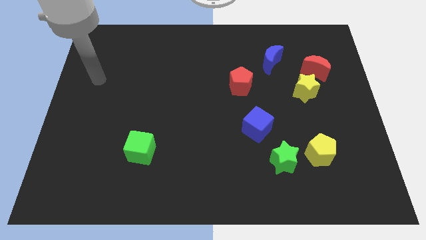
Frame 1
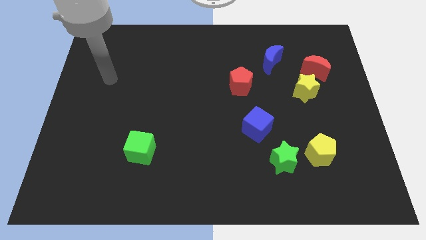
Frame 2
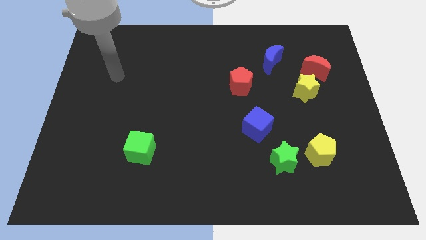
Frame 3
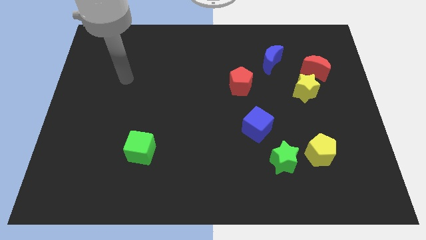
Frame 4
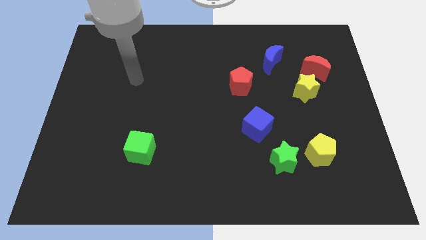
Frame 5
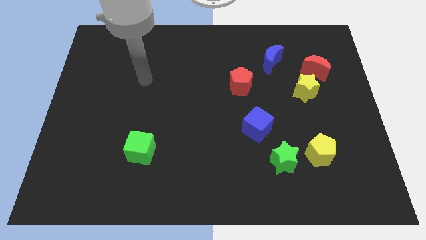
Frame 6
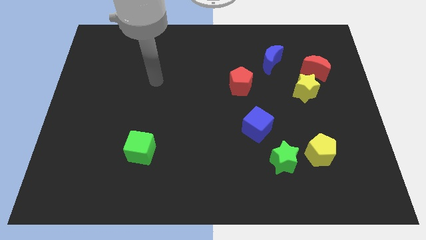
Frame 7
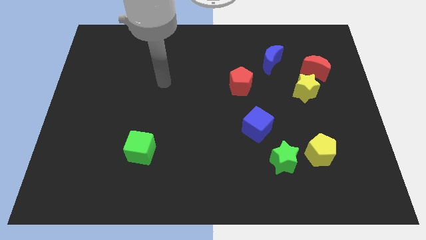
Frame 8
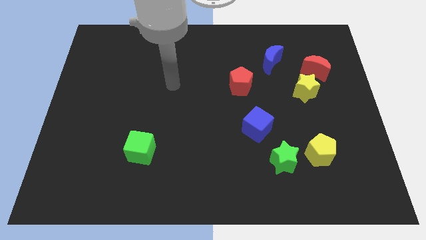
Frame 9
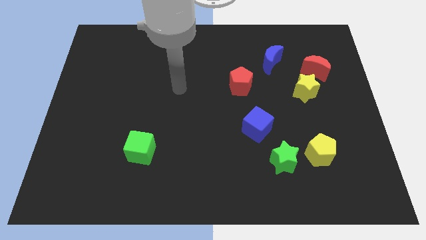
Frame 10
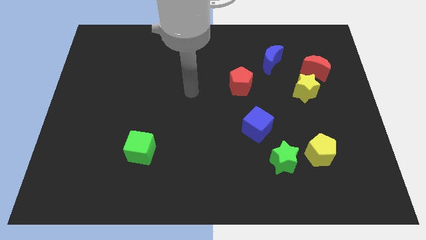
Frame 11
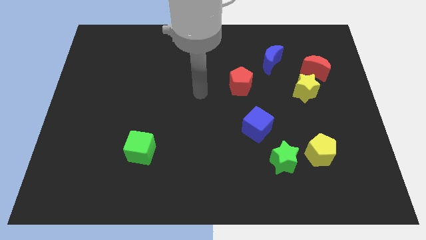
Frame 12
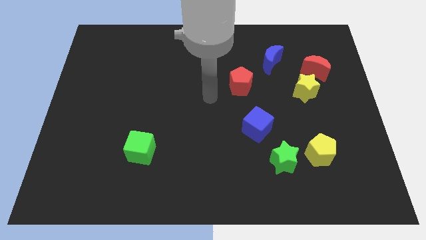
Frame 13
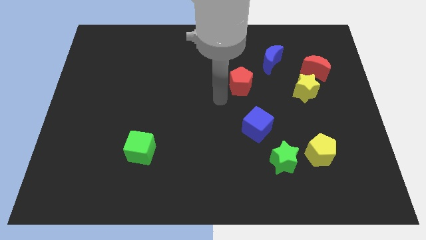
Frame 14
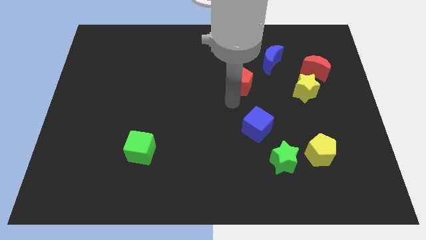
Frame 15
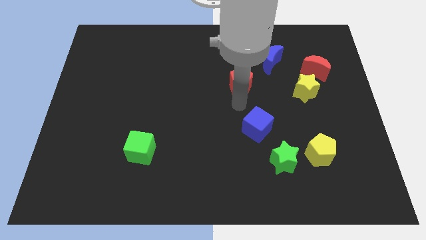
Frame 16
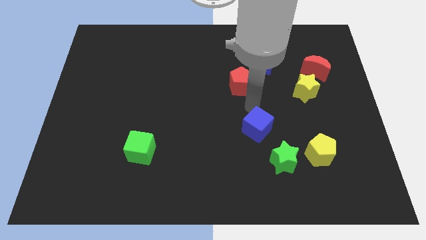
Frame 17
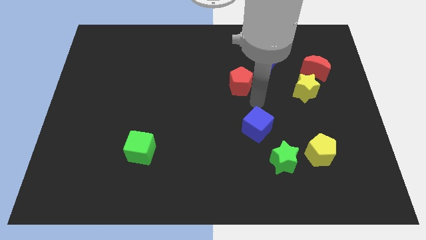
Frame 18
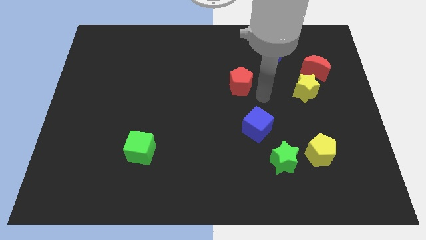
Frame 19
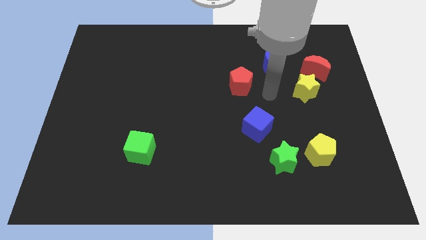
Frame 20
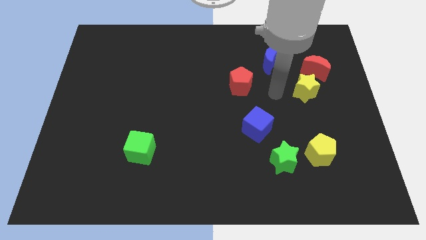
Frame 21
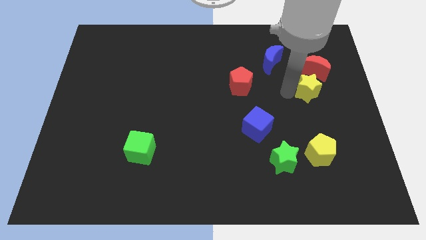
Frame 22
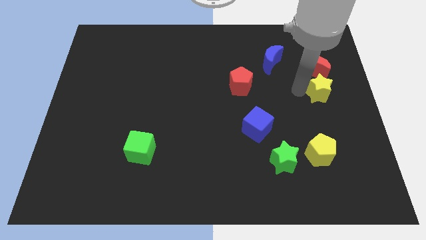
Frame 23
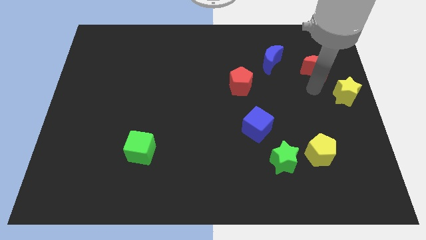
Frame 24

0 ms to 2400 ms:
separate the red moon from the yellow star

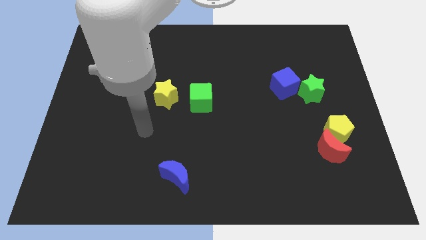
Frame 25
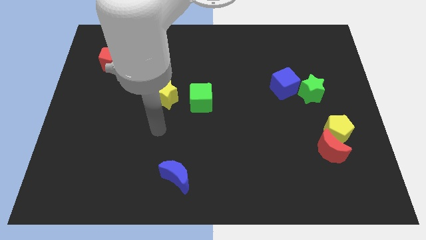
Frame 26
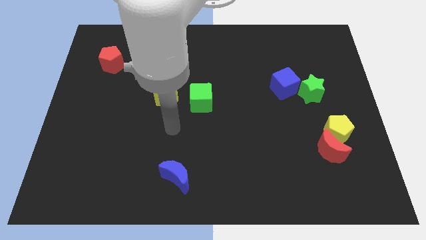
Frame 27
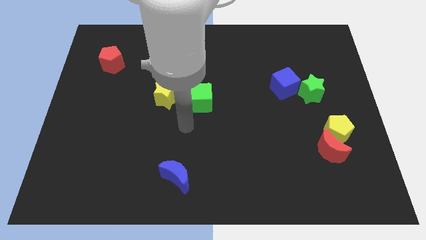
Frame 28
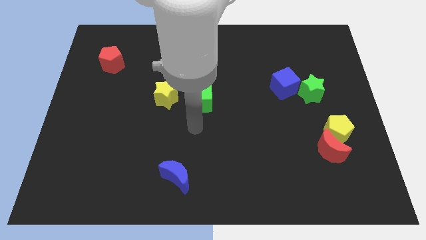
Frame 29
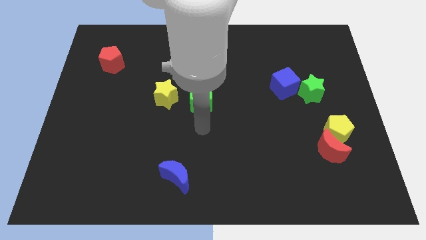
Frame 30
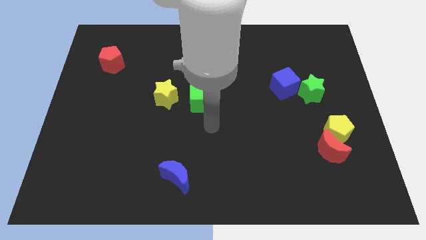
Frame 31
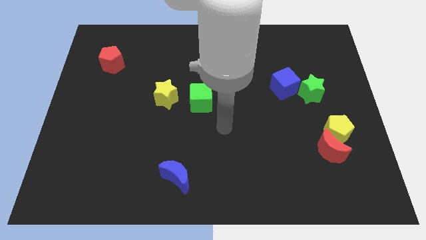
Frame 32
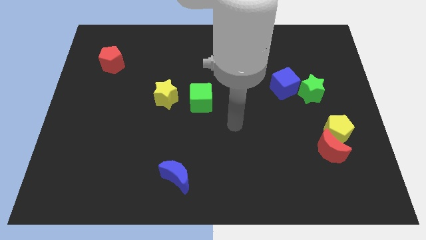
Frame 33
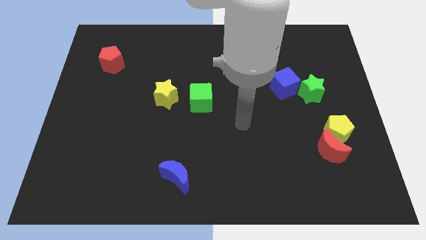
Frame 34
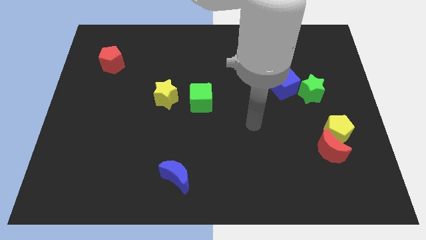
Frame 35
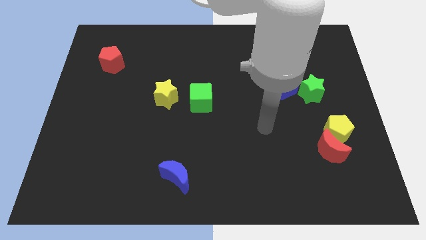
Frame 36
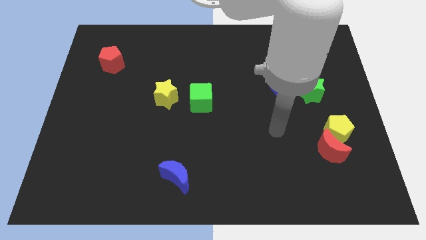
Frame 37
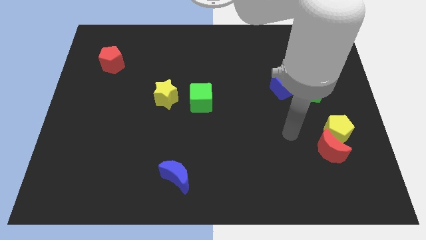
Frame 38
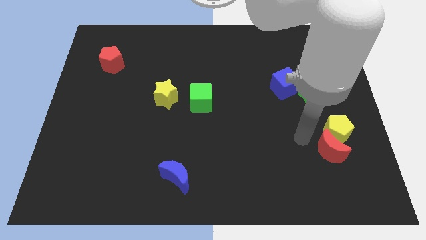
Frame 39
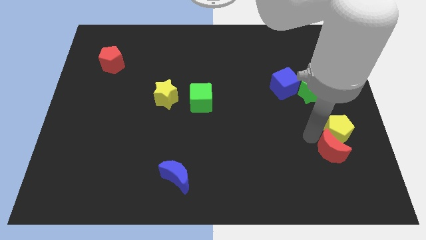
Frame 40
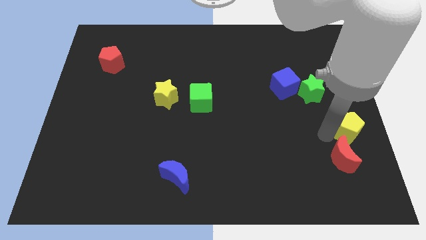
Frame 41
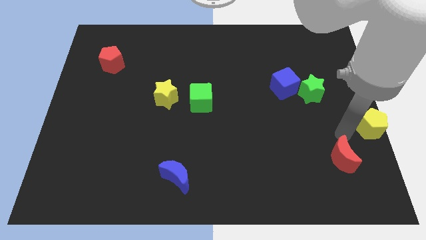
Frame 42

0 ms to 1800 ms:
pull the red moon apart from the yellow pentagon

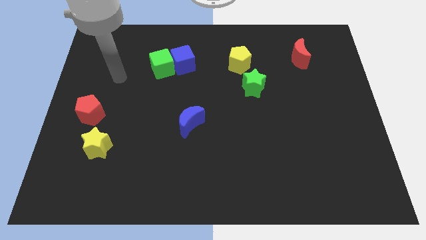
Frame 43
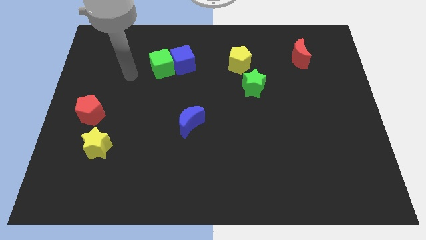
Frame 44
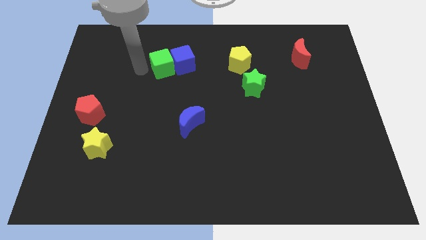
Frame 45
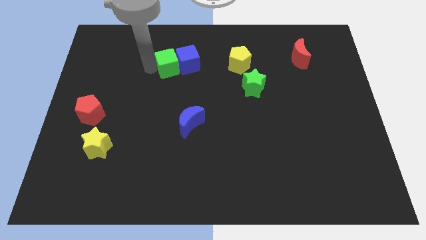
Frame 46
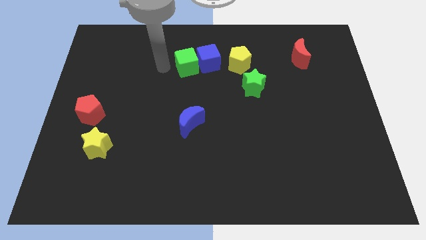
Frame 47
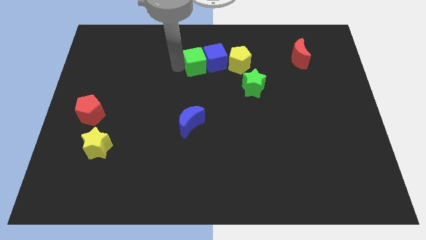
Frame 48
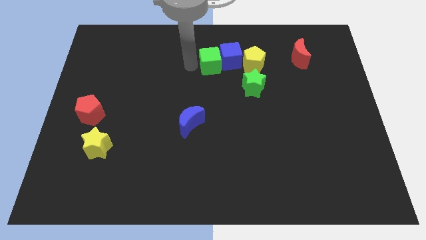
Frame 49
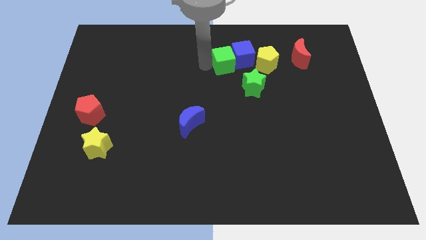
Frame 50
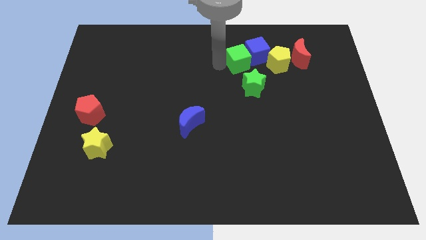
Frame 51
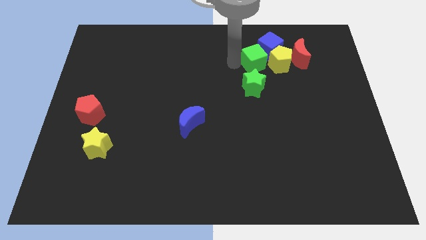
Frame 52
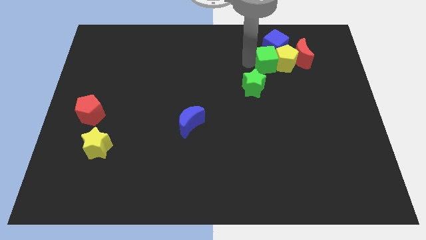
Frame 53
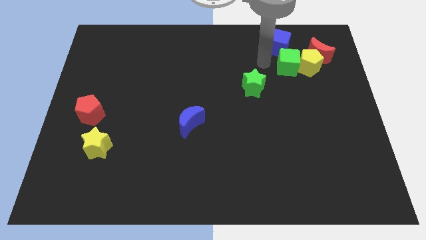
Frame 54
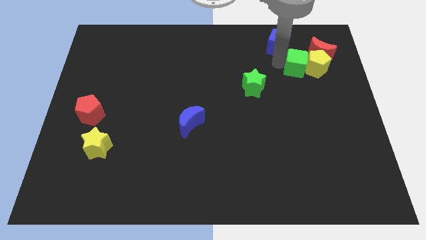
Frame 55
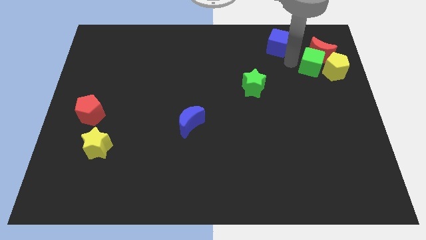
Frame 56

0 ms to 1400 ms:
separate the blue cube from the green cube

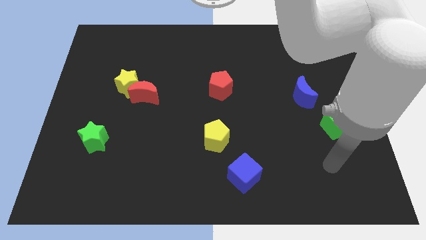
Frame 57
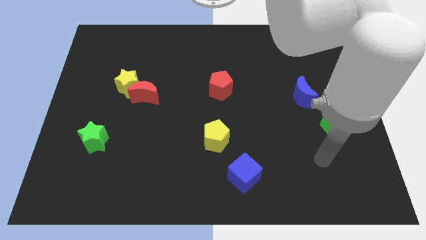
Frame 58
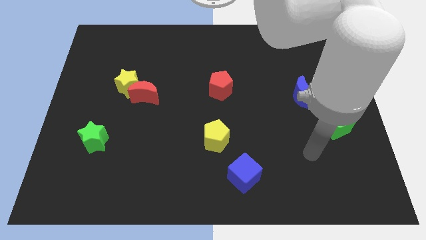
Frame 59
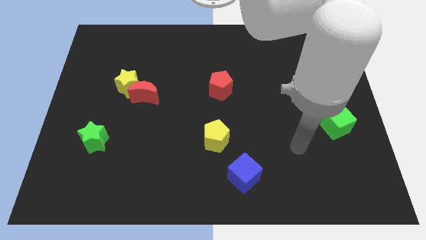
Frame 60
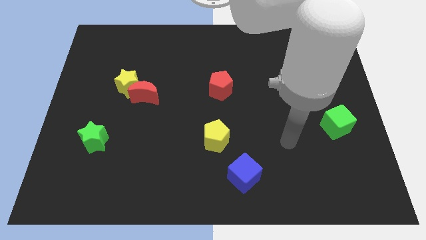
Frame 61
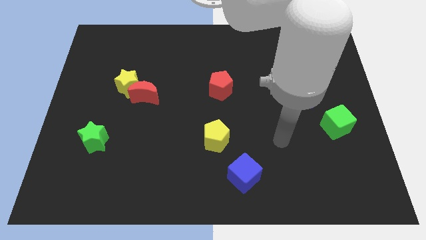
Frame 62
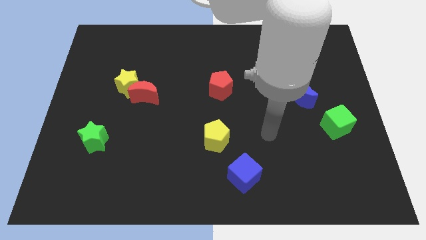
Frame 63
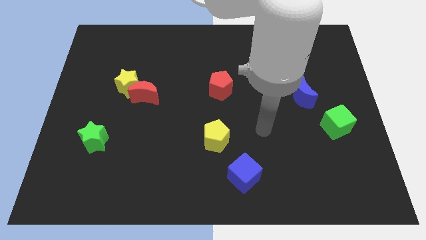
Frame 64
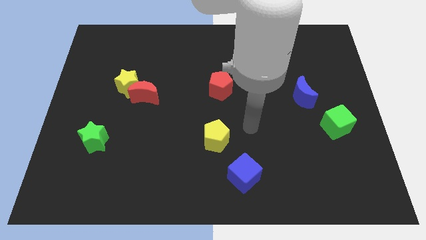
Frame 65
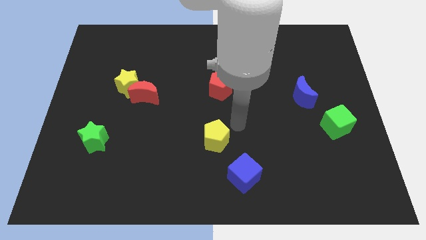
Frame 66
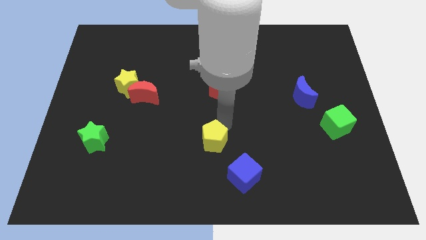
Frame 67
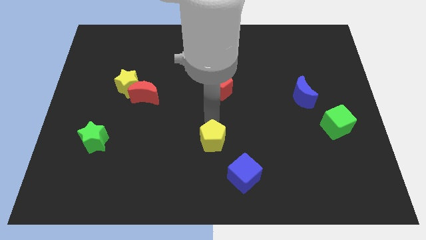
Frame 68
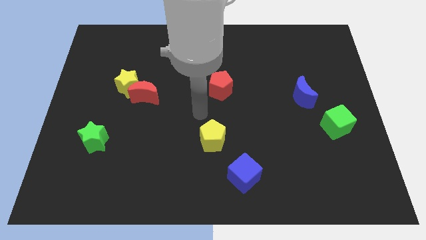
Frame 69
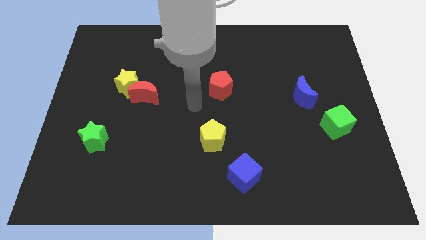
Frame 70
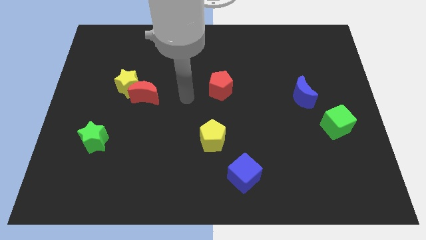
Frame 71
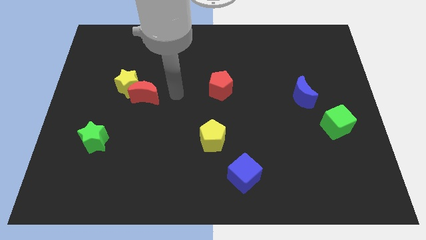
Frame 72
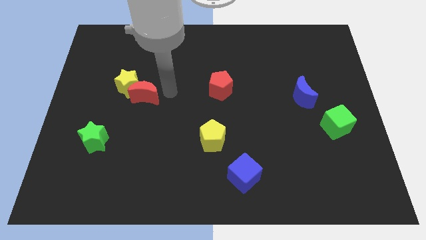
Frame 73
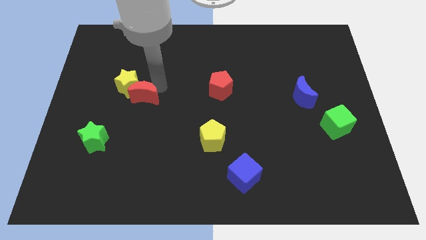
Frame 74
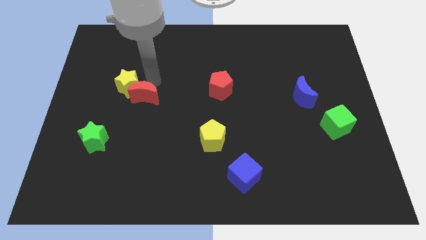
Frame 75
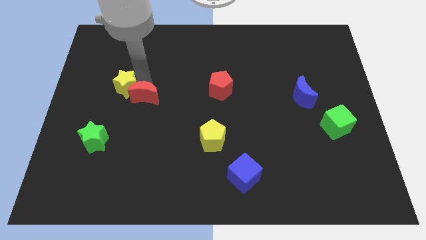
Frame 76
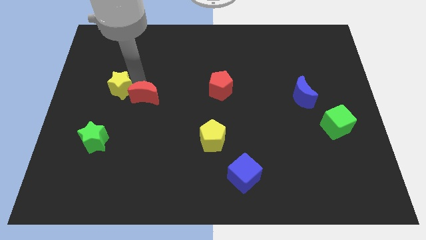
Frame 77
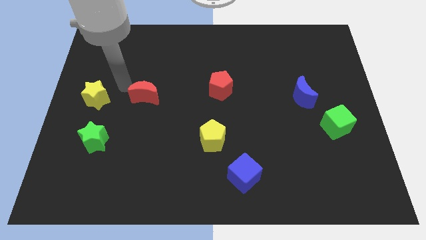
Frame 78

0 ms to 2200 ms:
move the red moon away from the yellow star

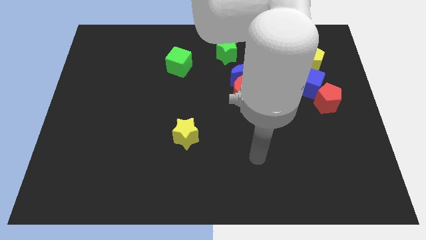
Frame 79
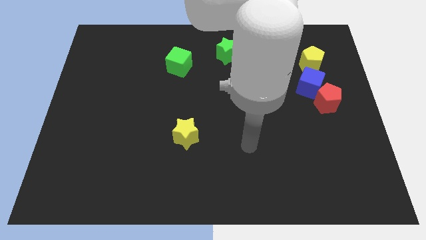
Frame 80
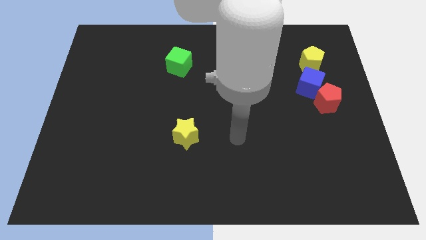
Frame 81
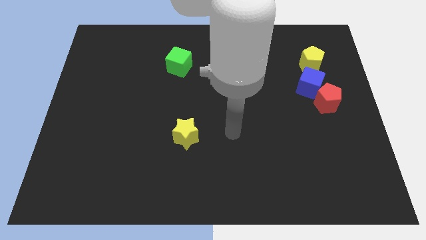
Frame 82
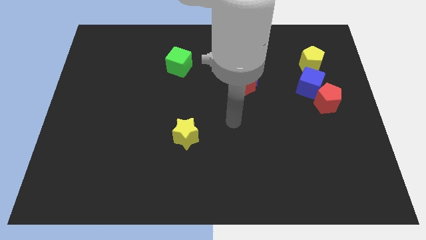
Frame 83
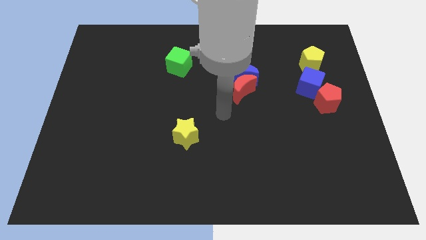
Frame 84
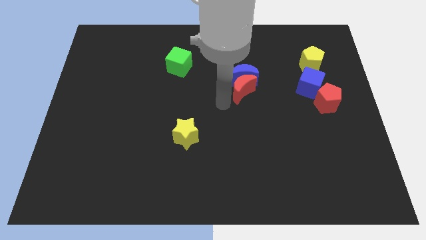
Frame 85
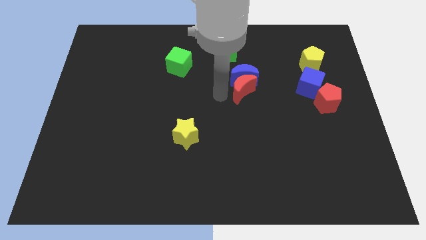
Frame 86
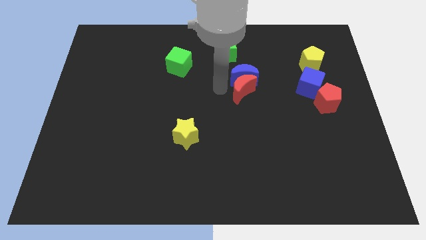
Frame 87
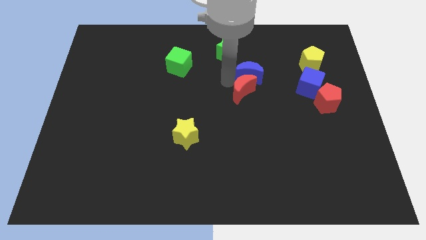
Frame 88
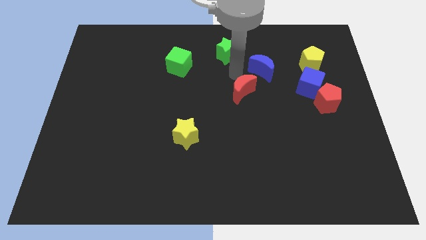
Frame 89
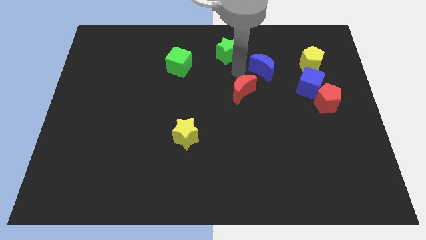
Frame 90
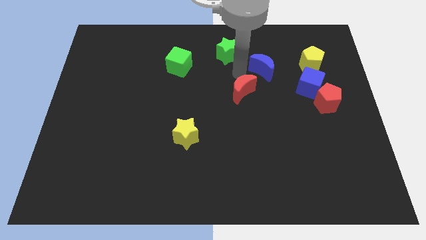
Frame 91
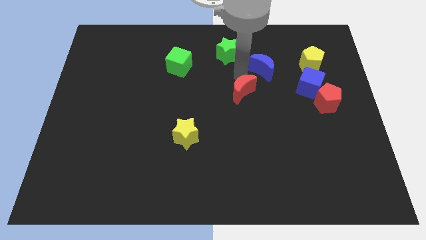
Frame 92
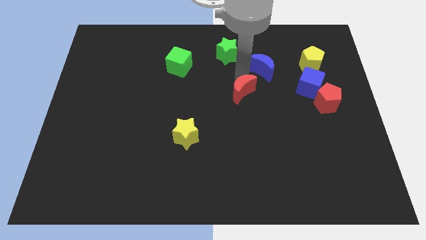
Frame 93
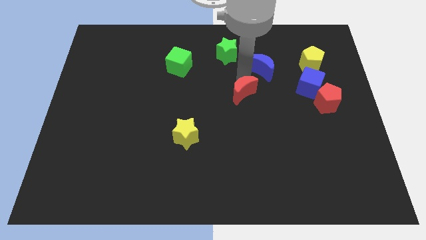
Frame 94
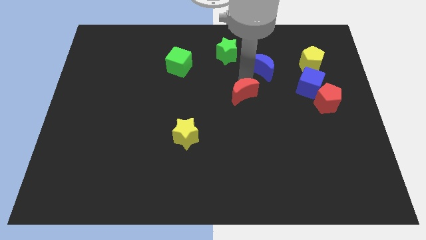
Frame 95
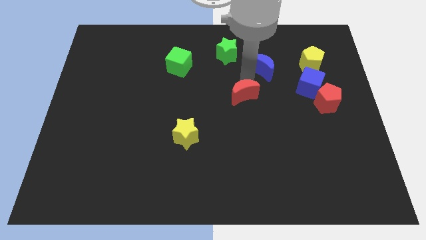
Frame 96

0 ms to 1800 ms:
pull the red moon apart from the blue moon
